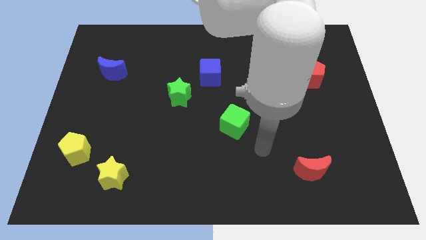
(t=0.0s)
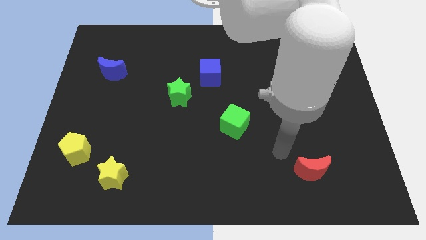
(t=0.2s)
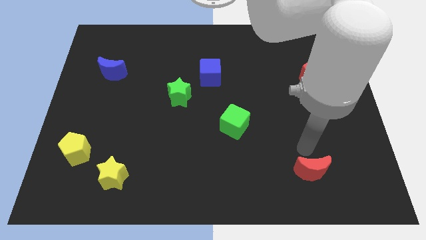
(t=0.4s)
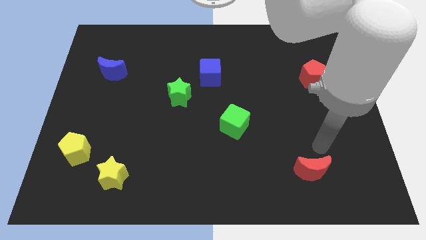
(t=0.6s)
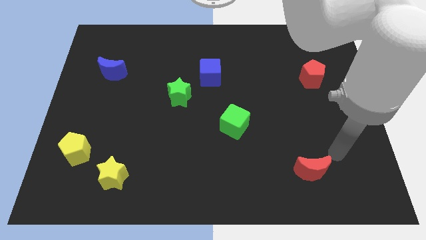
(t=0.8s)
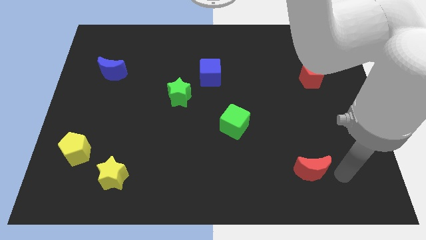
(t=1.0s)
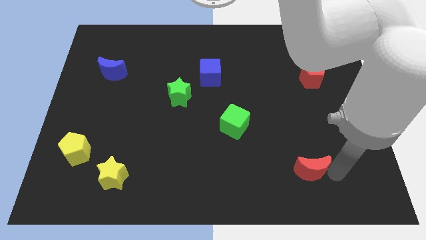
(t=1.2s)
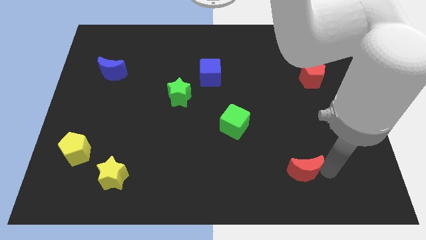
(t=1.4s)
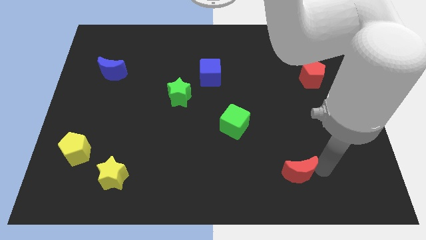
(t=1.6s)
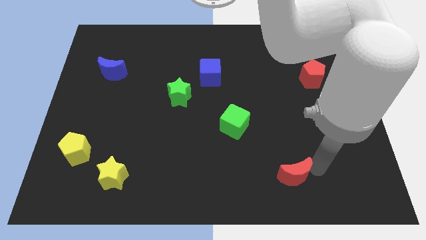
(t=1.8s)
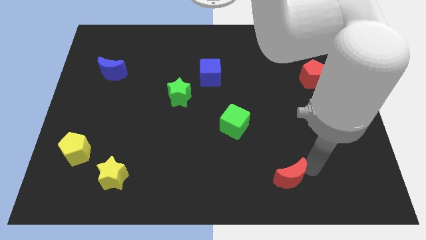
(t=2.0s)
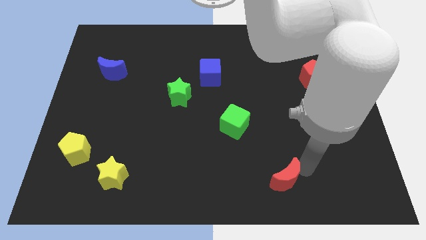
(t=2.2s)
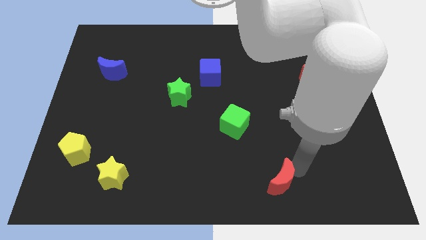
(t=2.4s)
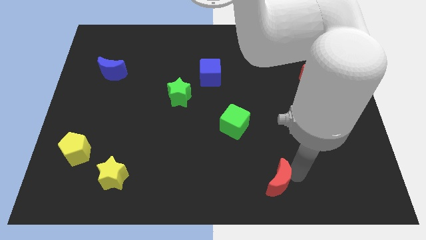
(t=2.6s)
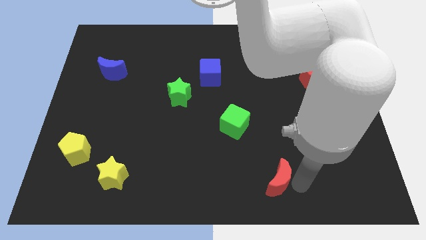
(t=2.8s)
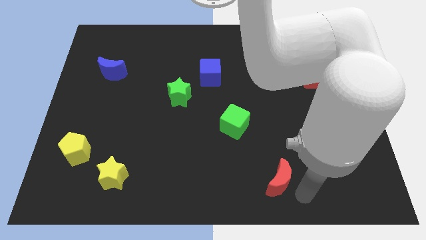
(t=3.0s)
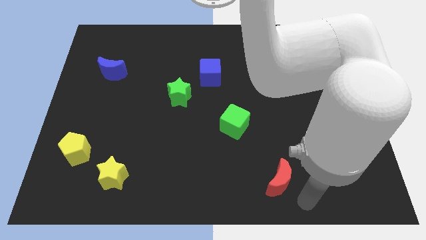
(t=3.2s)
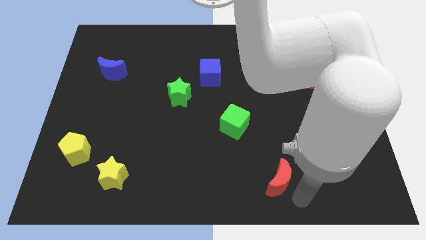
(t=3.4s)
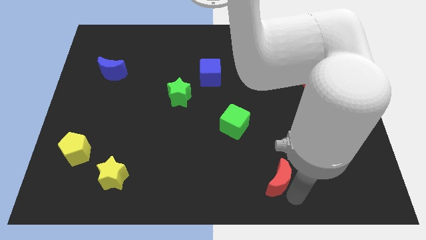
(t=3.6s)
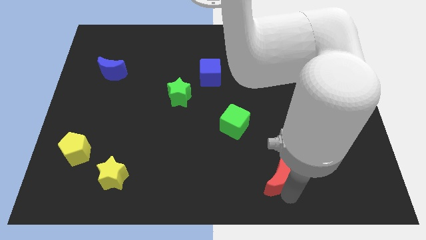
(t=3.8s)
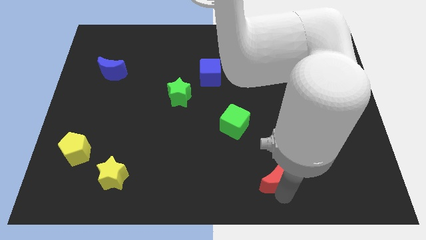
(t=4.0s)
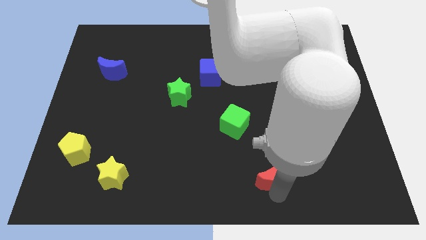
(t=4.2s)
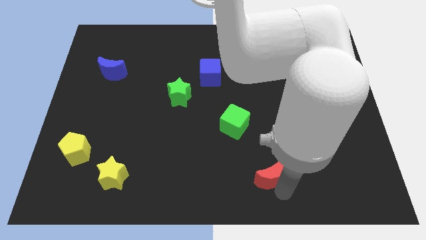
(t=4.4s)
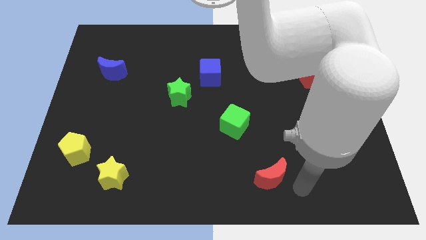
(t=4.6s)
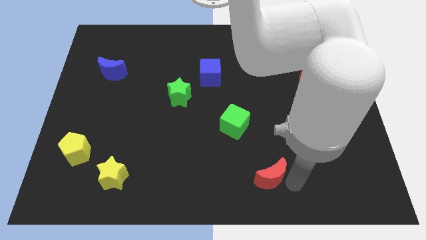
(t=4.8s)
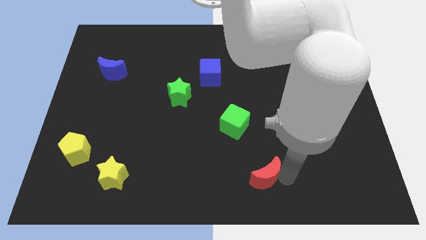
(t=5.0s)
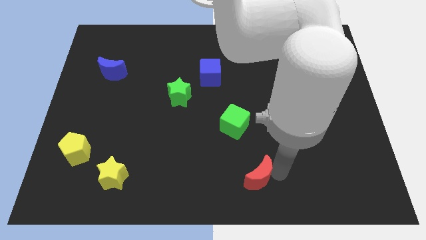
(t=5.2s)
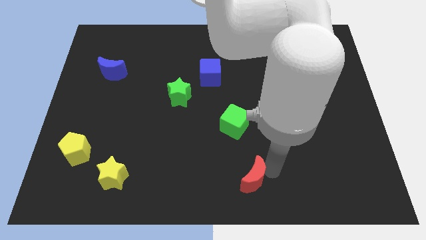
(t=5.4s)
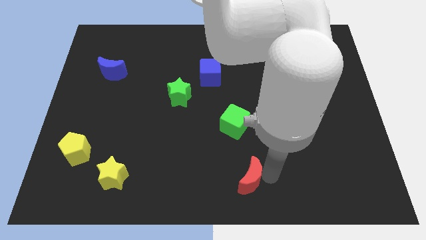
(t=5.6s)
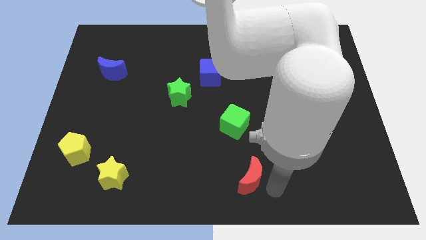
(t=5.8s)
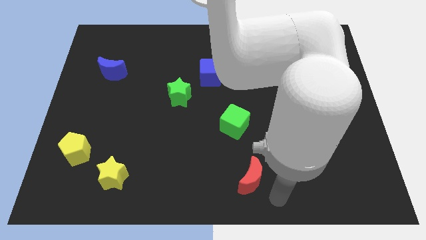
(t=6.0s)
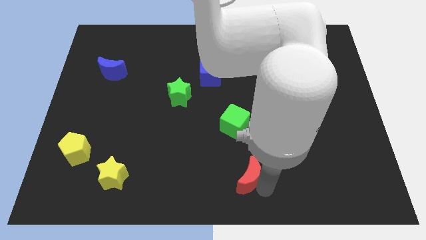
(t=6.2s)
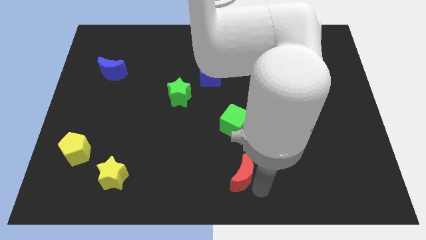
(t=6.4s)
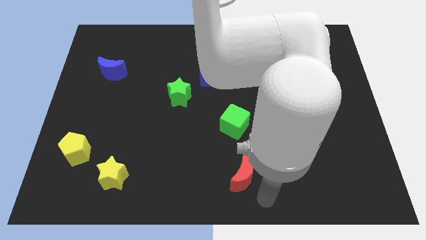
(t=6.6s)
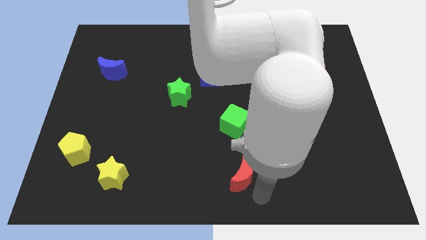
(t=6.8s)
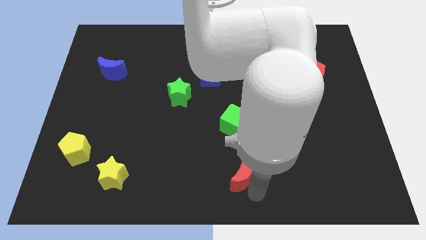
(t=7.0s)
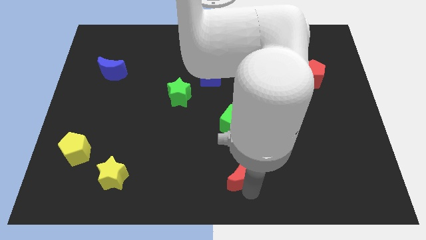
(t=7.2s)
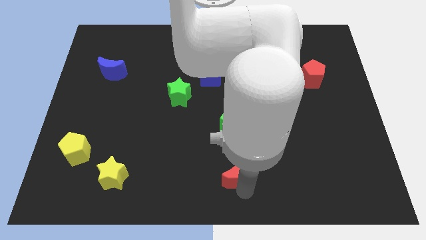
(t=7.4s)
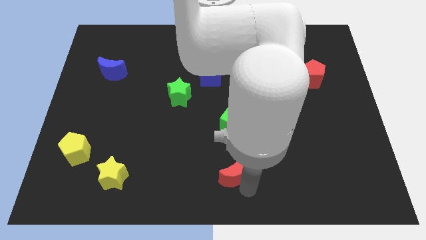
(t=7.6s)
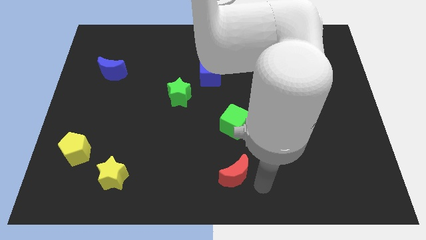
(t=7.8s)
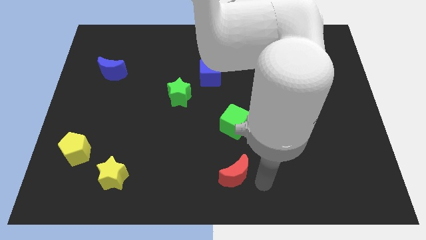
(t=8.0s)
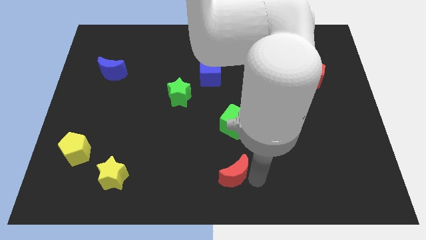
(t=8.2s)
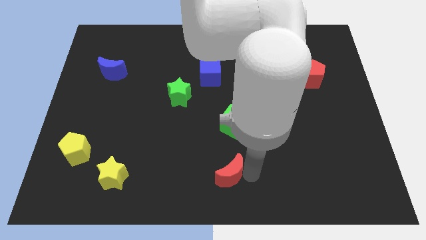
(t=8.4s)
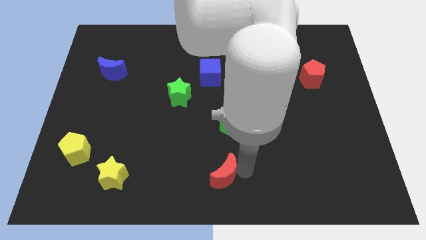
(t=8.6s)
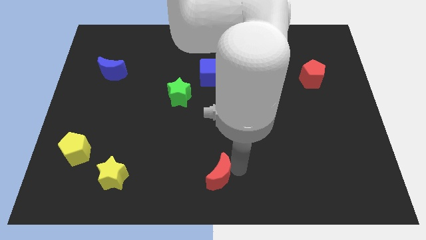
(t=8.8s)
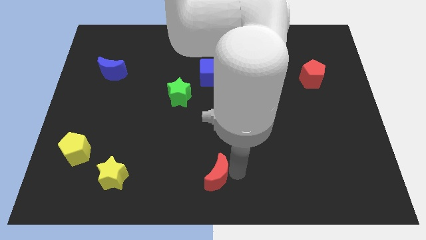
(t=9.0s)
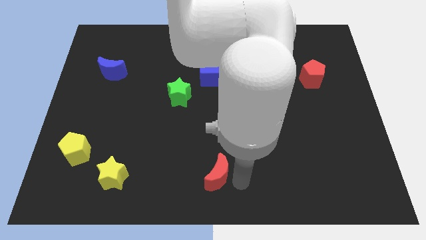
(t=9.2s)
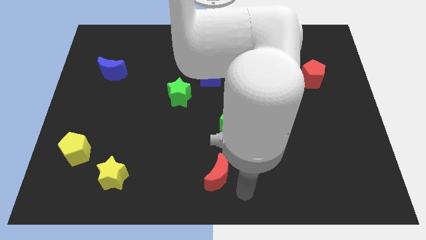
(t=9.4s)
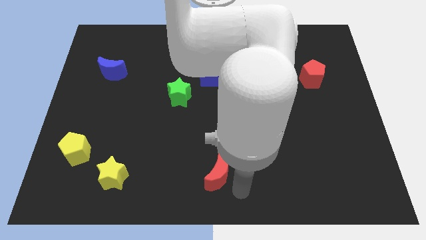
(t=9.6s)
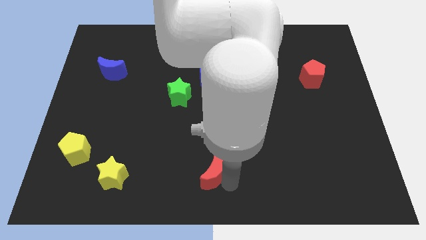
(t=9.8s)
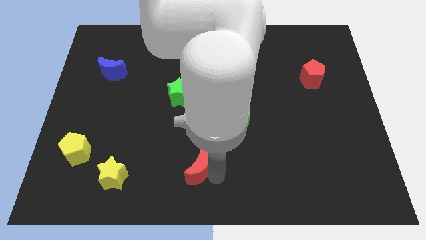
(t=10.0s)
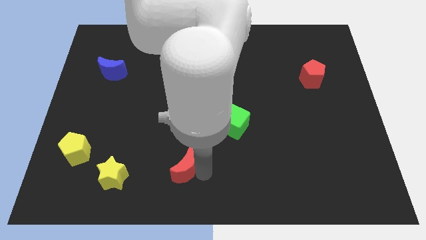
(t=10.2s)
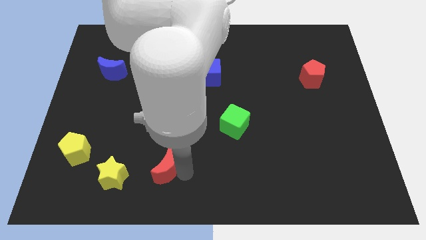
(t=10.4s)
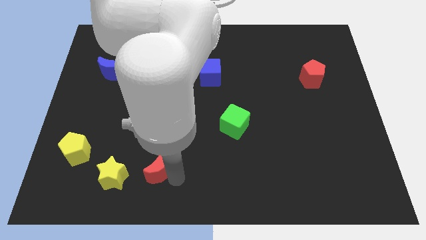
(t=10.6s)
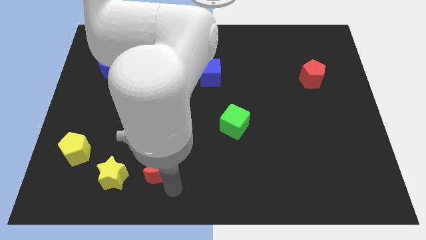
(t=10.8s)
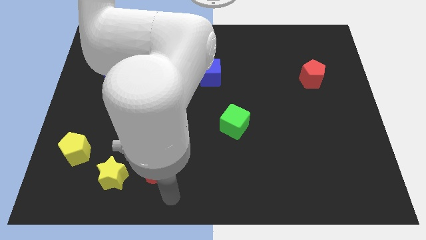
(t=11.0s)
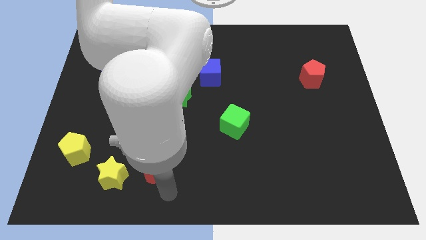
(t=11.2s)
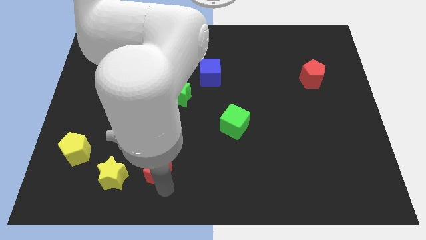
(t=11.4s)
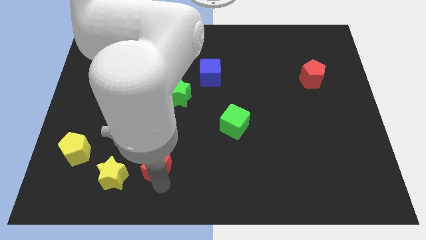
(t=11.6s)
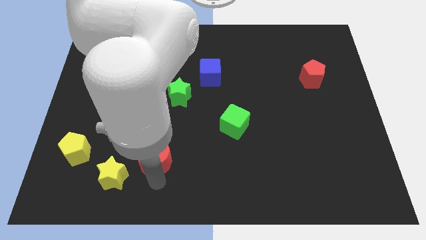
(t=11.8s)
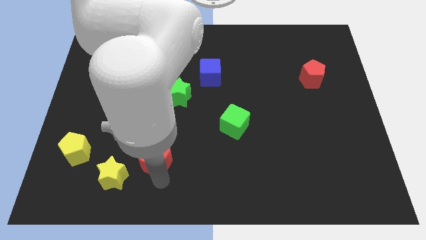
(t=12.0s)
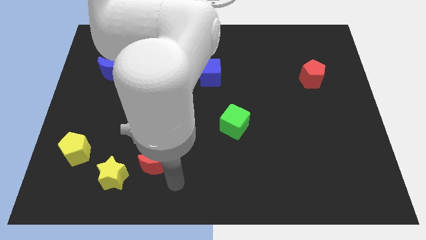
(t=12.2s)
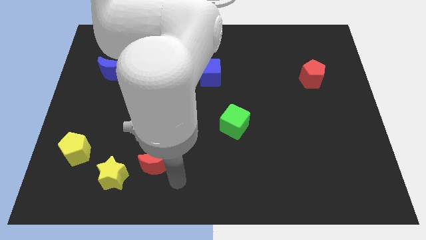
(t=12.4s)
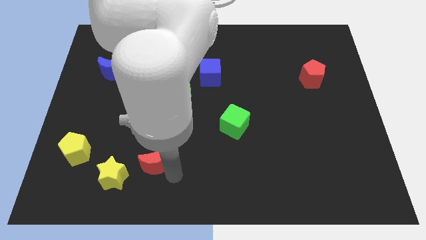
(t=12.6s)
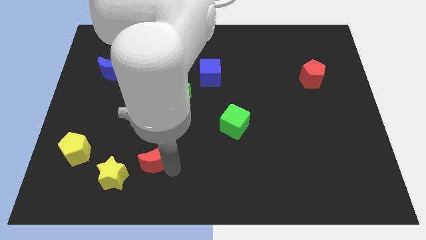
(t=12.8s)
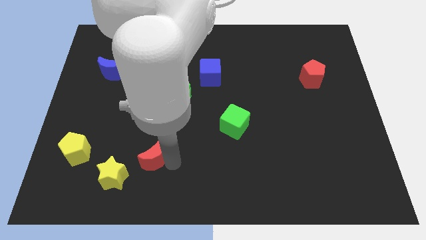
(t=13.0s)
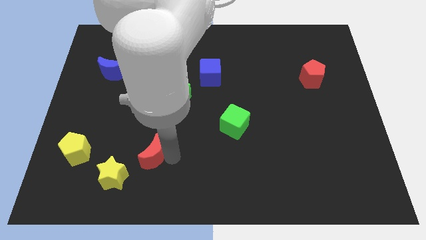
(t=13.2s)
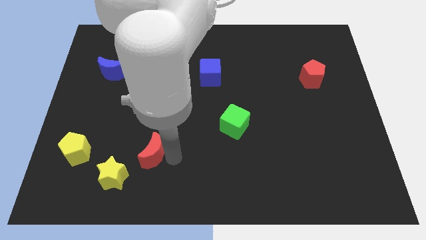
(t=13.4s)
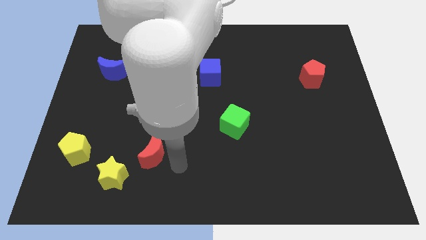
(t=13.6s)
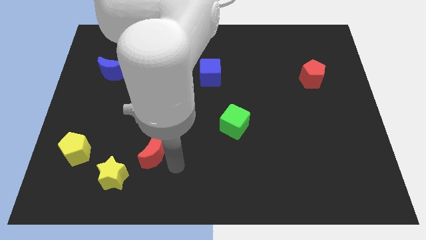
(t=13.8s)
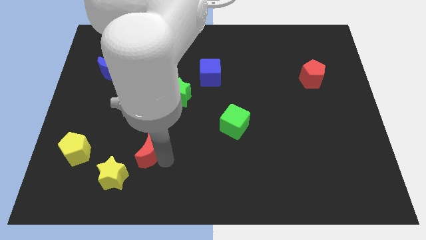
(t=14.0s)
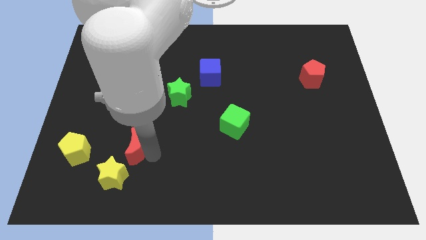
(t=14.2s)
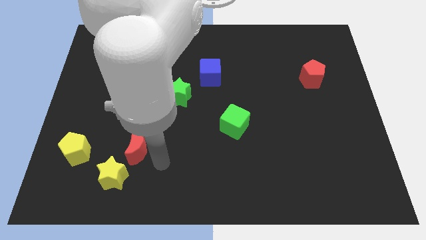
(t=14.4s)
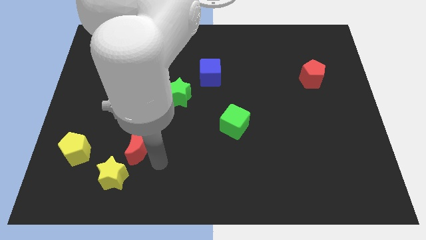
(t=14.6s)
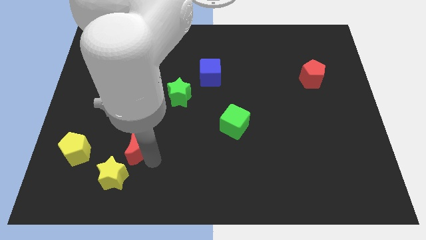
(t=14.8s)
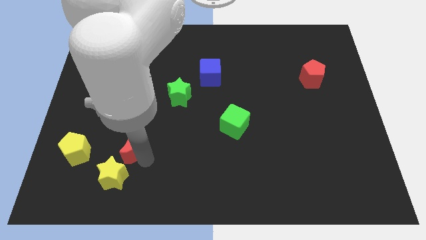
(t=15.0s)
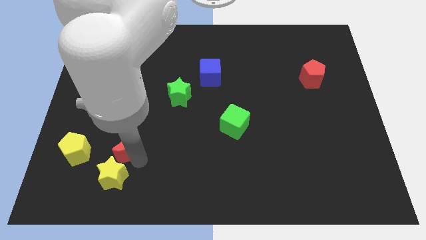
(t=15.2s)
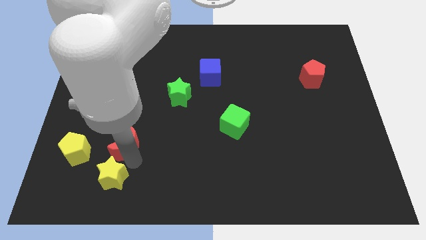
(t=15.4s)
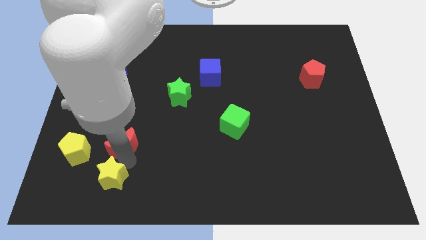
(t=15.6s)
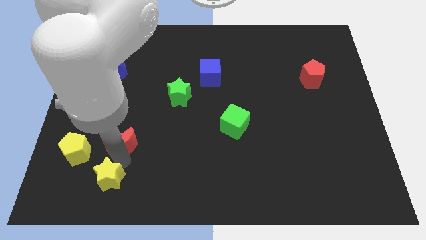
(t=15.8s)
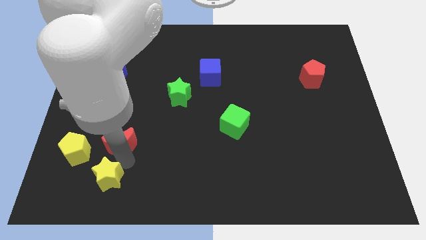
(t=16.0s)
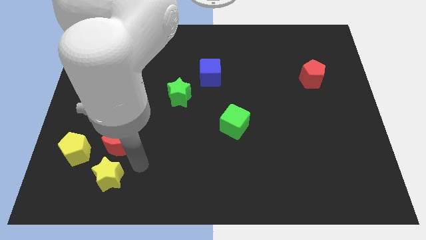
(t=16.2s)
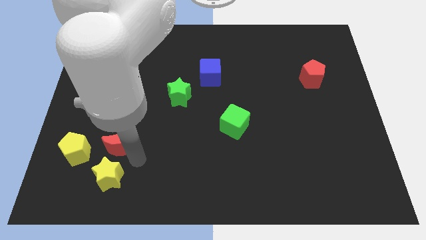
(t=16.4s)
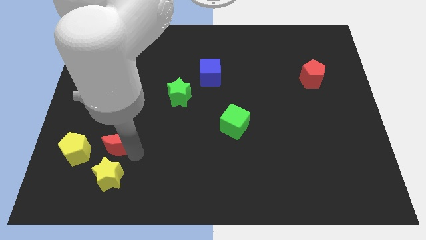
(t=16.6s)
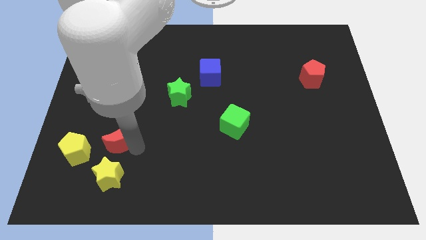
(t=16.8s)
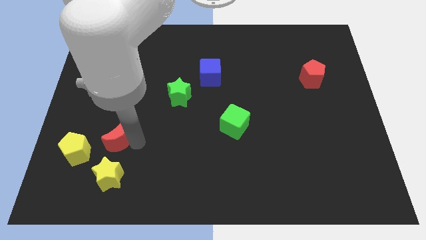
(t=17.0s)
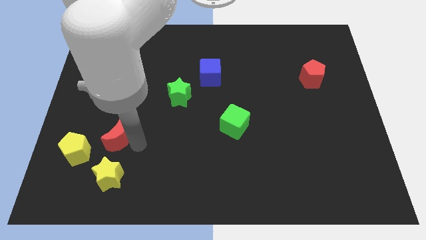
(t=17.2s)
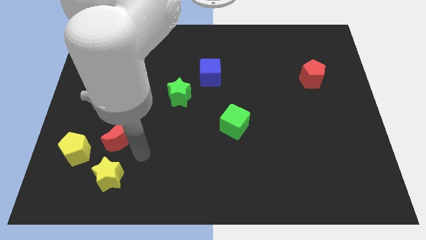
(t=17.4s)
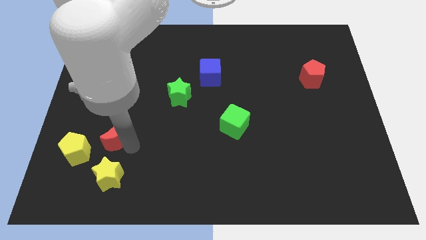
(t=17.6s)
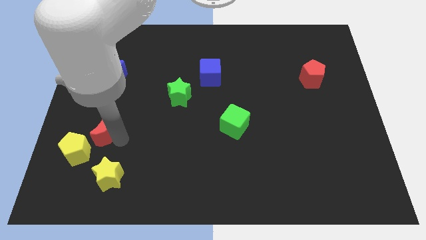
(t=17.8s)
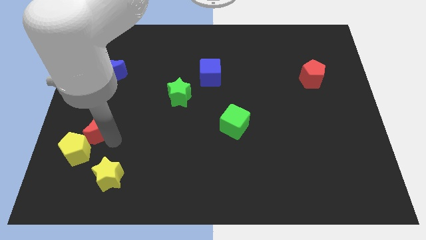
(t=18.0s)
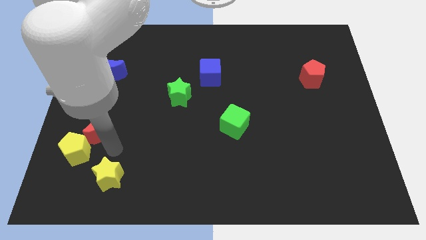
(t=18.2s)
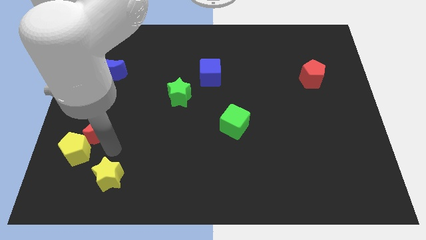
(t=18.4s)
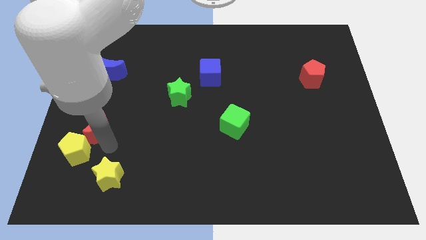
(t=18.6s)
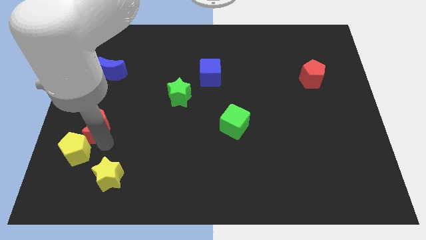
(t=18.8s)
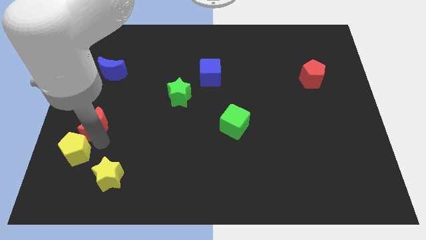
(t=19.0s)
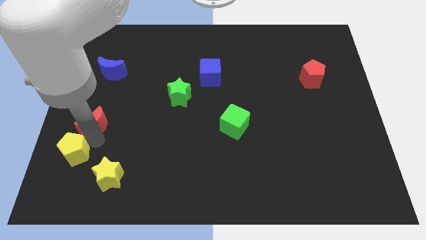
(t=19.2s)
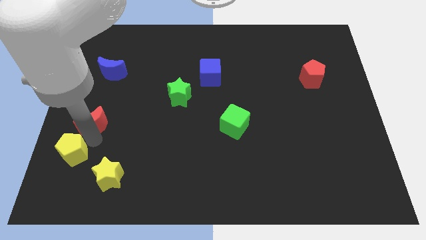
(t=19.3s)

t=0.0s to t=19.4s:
slide the red moon to the center left
